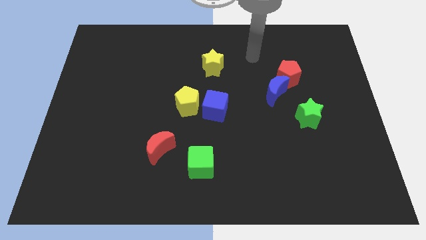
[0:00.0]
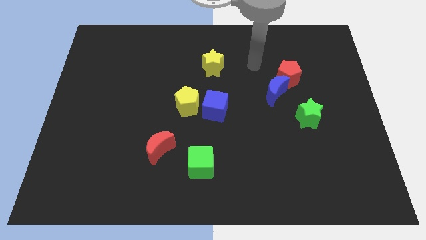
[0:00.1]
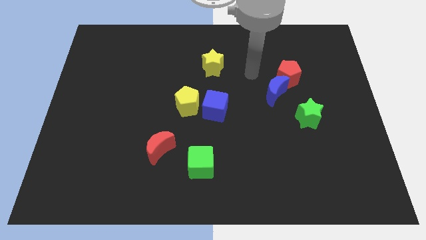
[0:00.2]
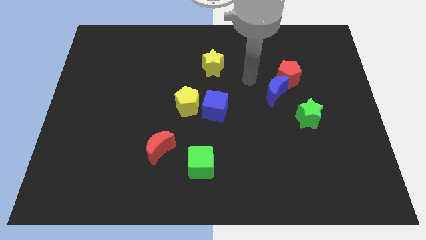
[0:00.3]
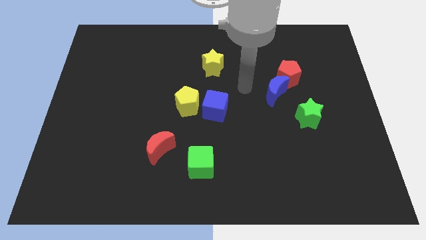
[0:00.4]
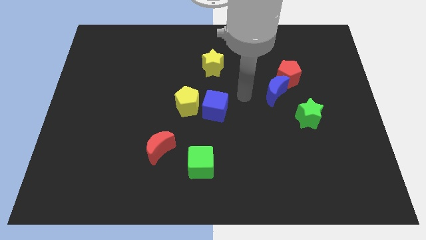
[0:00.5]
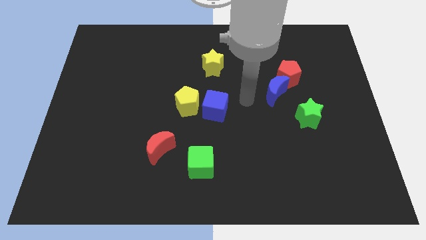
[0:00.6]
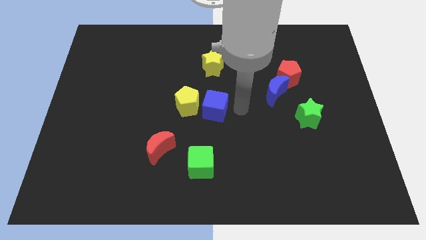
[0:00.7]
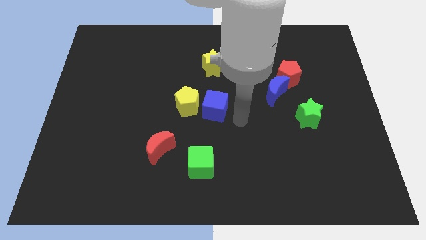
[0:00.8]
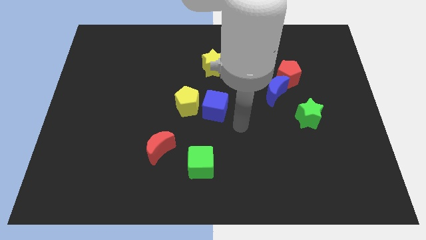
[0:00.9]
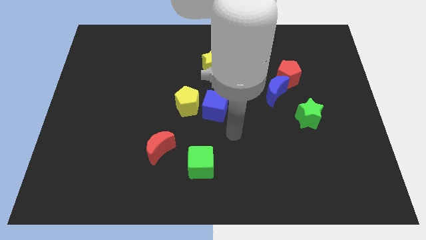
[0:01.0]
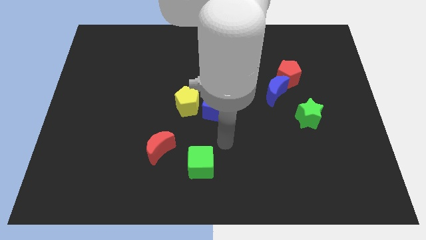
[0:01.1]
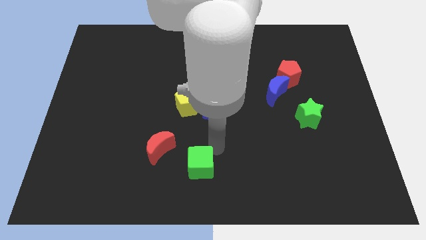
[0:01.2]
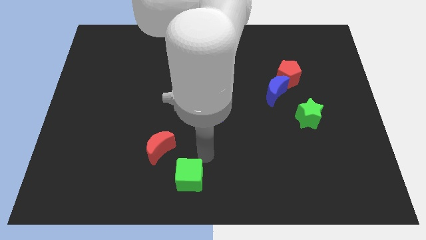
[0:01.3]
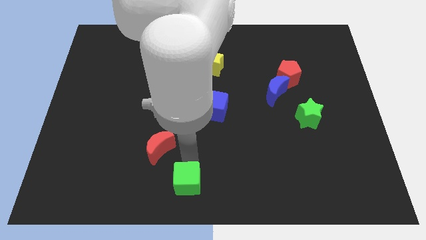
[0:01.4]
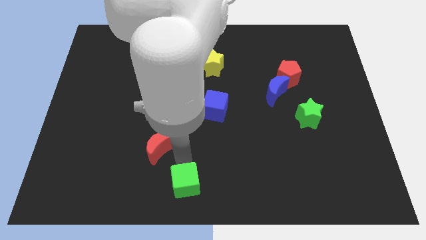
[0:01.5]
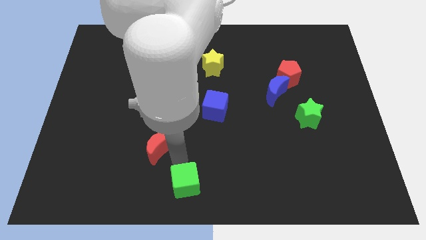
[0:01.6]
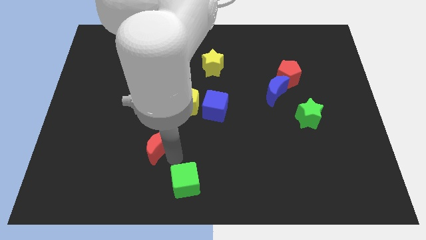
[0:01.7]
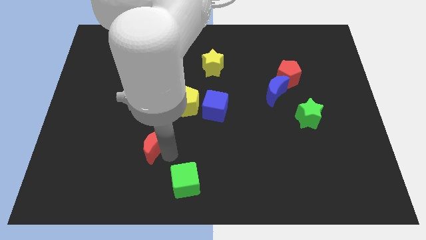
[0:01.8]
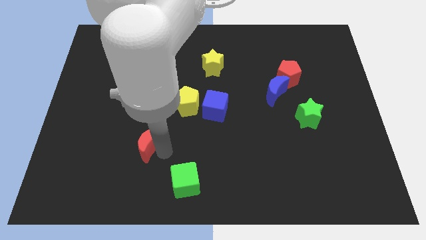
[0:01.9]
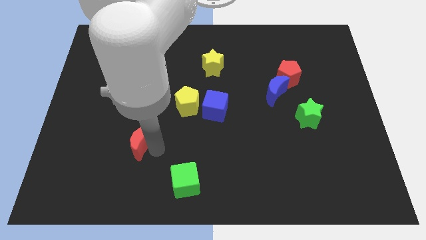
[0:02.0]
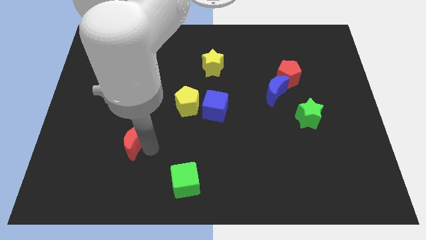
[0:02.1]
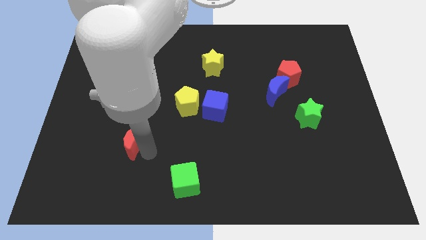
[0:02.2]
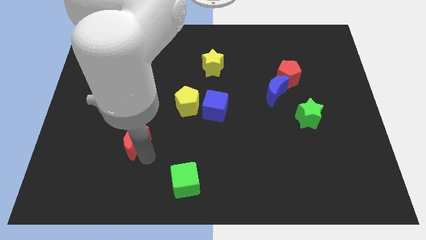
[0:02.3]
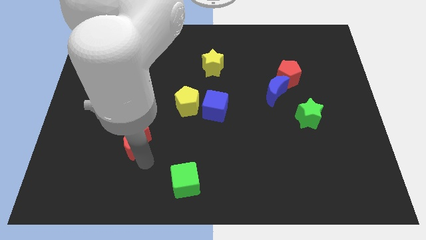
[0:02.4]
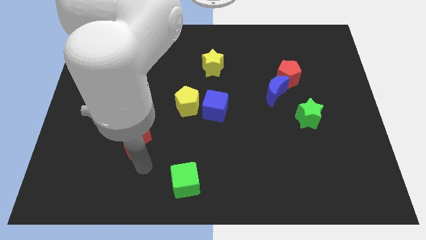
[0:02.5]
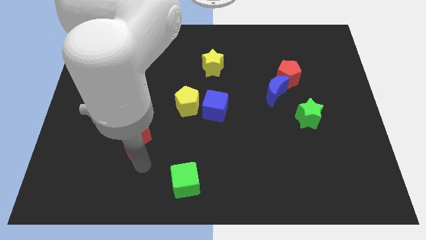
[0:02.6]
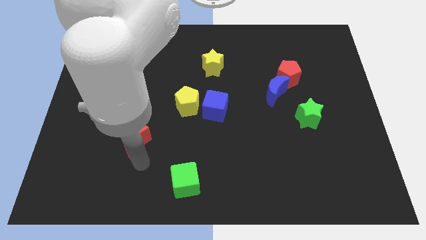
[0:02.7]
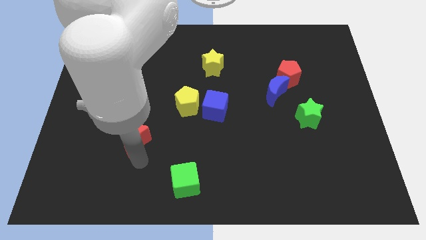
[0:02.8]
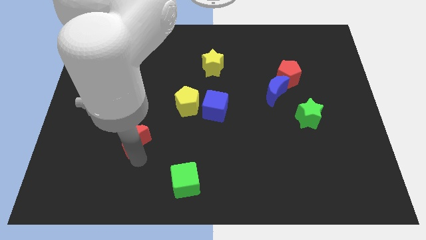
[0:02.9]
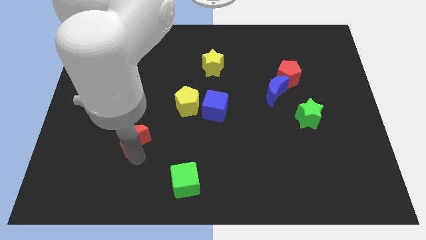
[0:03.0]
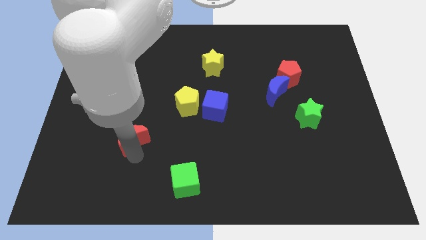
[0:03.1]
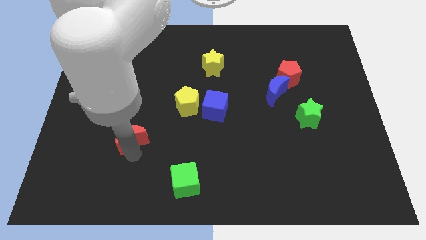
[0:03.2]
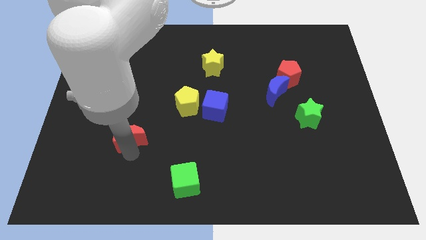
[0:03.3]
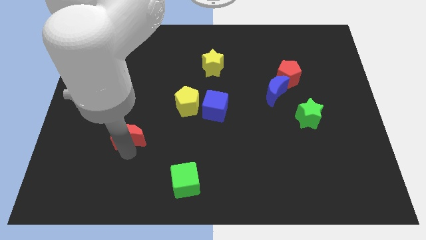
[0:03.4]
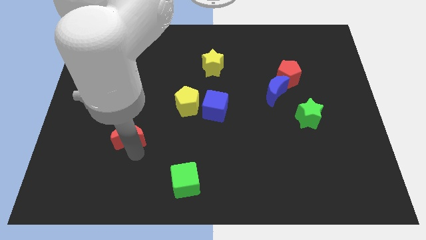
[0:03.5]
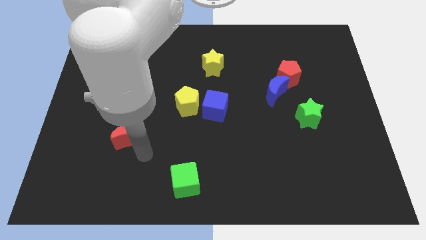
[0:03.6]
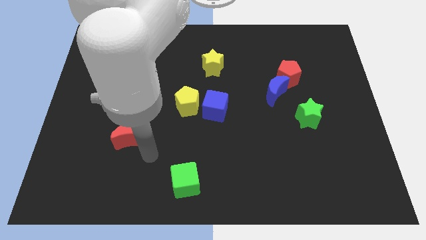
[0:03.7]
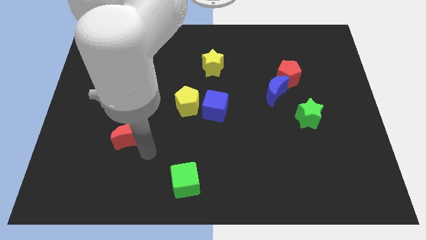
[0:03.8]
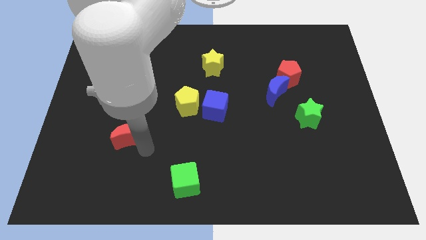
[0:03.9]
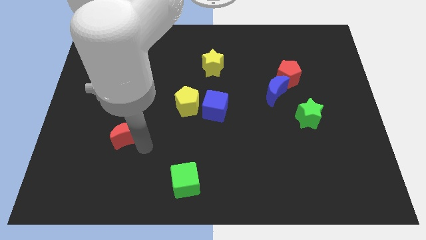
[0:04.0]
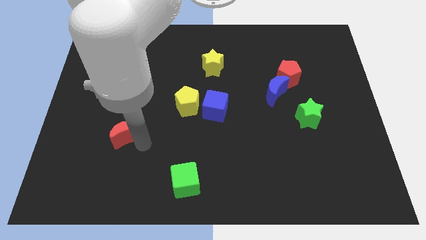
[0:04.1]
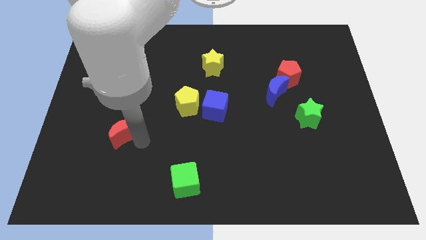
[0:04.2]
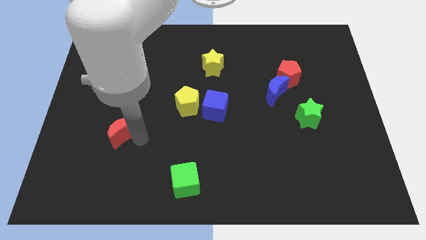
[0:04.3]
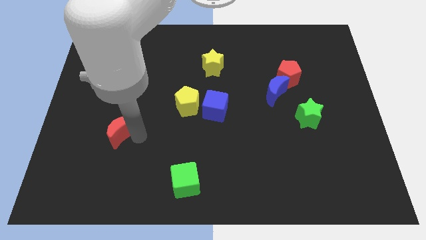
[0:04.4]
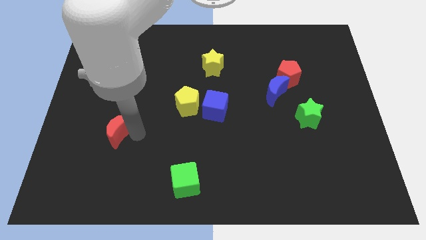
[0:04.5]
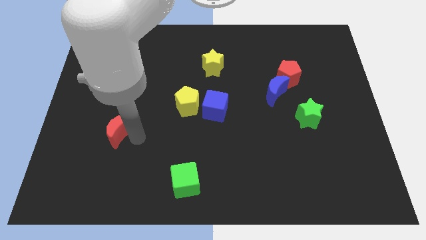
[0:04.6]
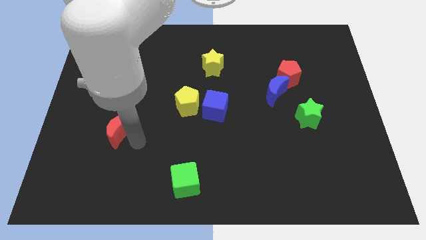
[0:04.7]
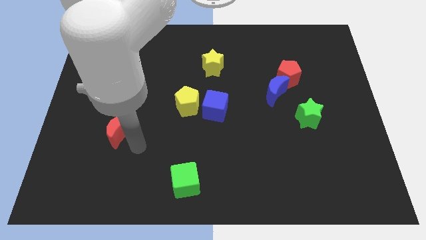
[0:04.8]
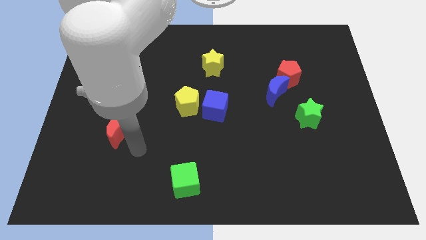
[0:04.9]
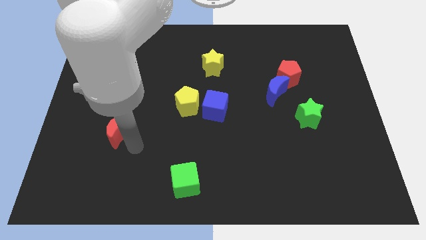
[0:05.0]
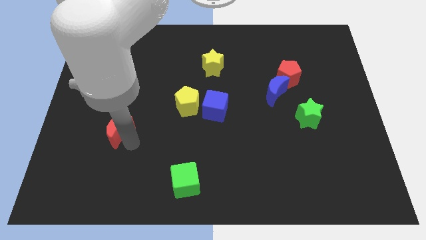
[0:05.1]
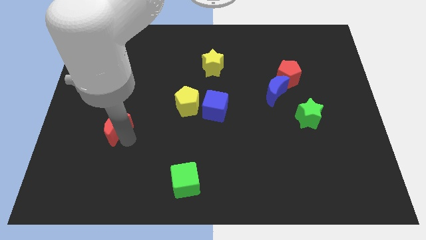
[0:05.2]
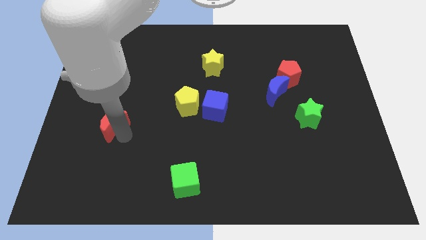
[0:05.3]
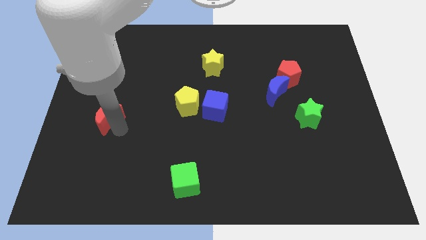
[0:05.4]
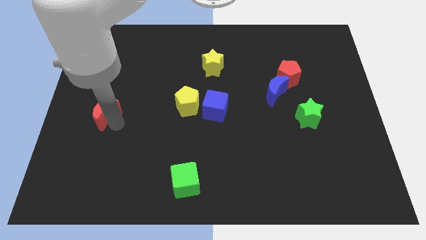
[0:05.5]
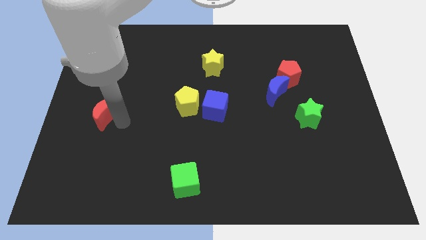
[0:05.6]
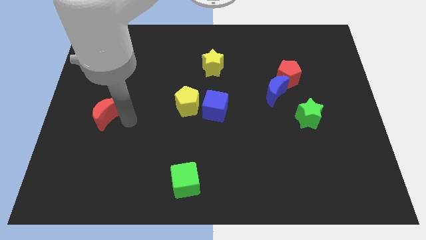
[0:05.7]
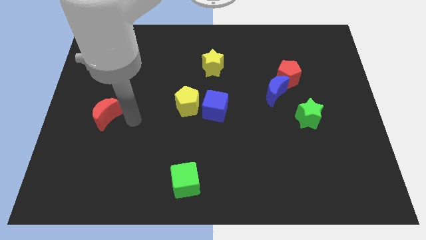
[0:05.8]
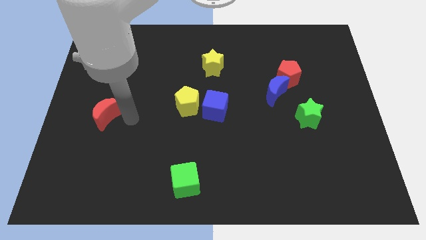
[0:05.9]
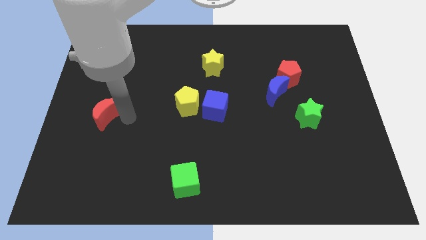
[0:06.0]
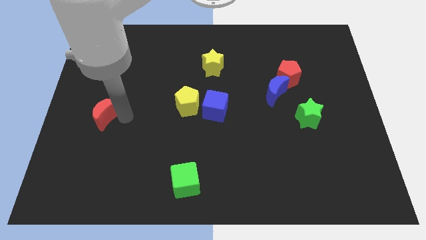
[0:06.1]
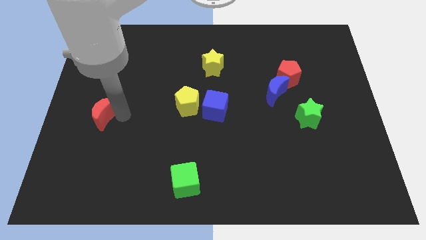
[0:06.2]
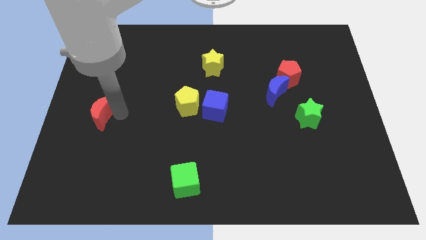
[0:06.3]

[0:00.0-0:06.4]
push the red moon to the left side of the board

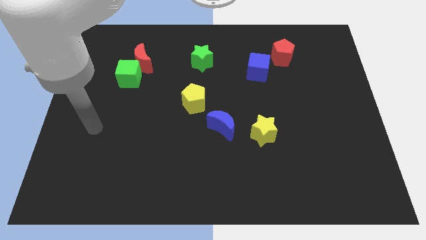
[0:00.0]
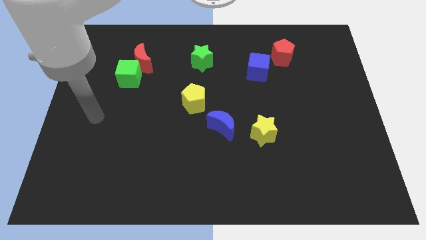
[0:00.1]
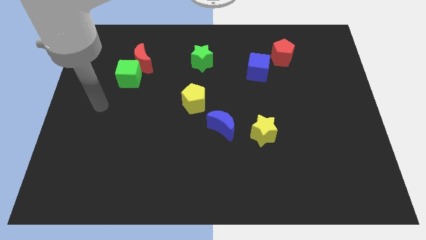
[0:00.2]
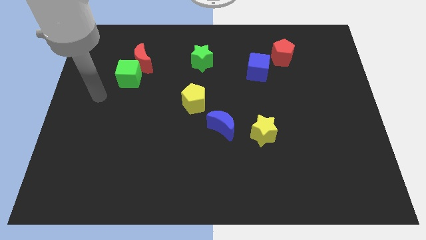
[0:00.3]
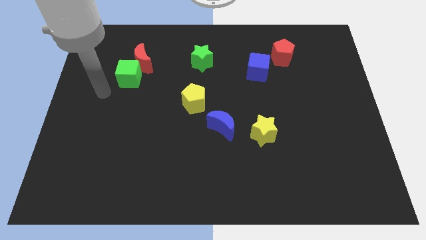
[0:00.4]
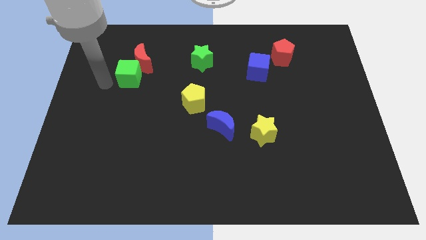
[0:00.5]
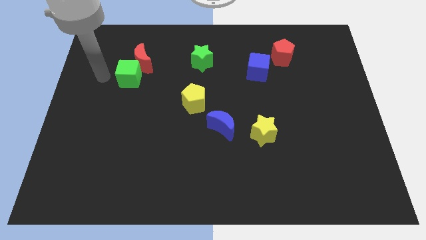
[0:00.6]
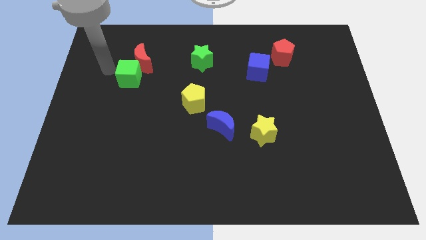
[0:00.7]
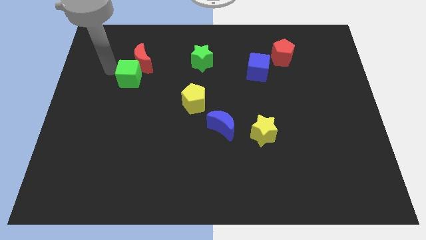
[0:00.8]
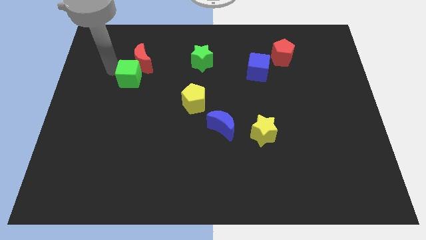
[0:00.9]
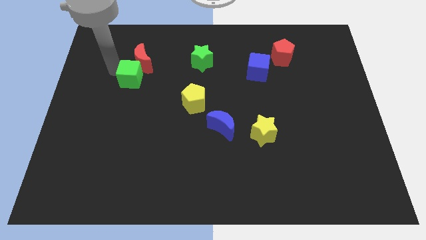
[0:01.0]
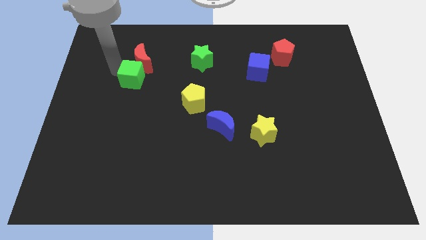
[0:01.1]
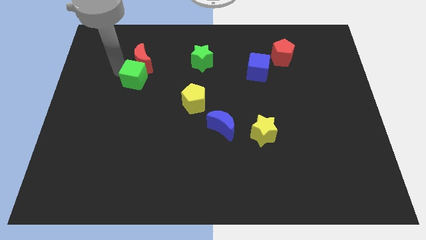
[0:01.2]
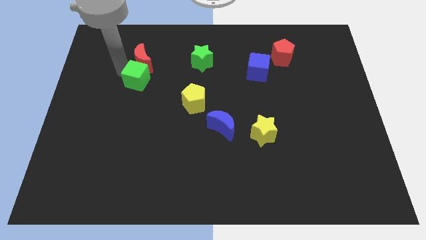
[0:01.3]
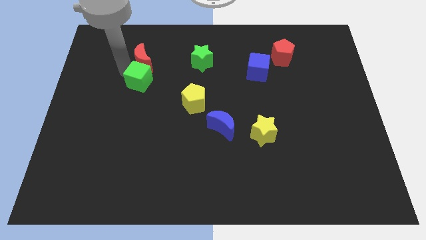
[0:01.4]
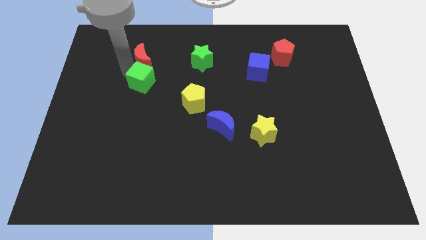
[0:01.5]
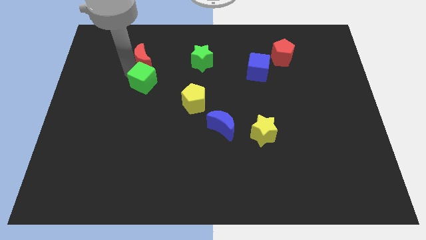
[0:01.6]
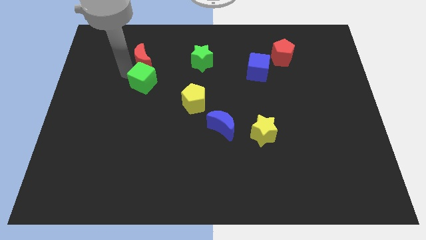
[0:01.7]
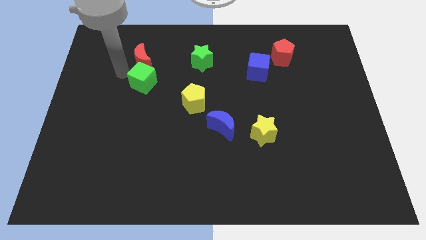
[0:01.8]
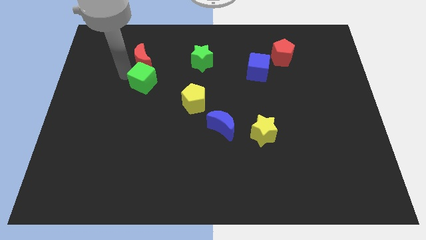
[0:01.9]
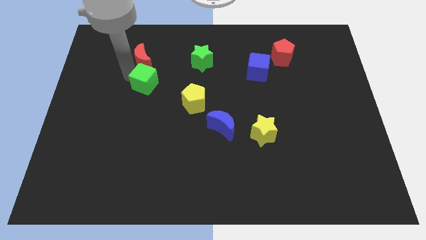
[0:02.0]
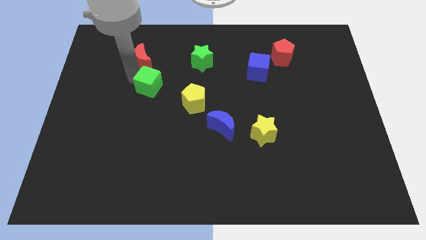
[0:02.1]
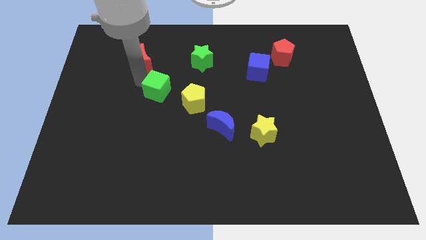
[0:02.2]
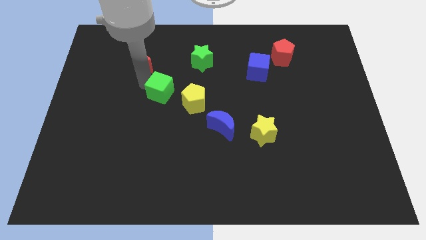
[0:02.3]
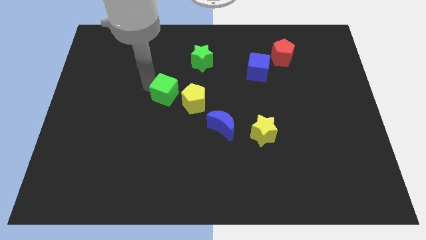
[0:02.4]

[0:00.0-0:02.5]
put the green cube to the middle of the board
